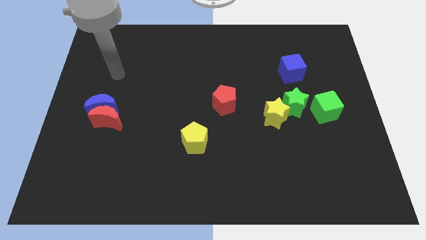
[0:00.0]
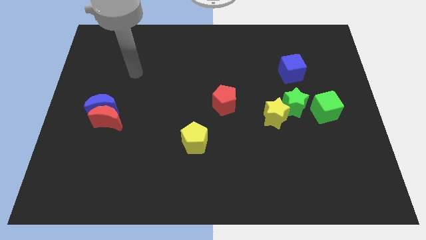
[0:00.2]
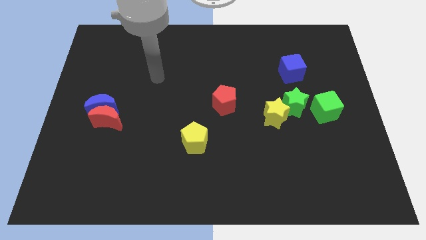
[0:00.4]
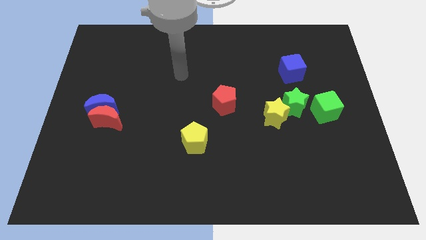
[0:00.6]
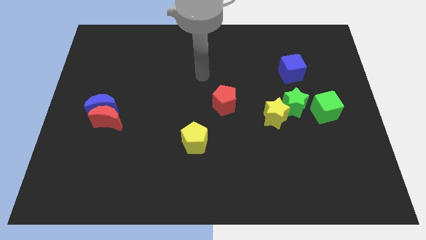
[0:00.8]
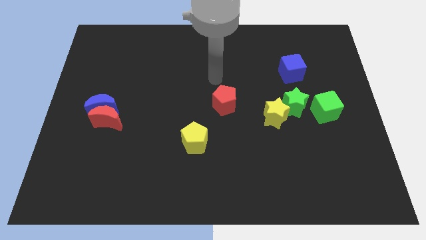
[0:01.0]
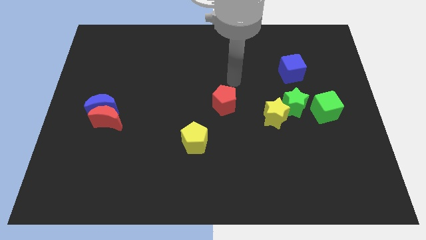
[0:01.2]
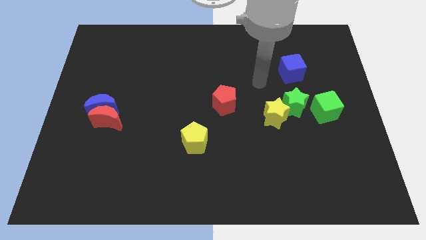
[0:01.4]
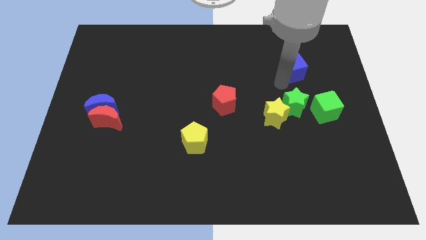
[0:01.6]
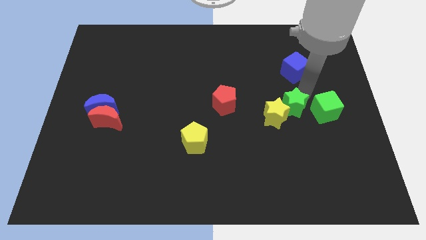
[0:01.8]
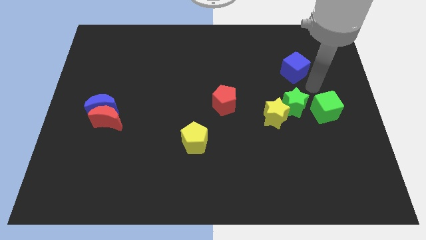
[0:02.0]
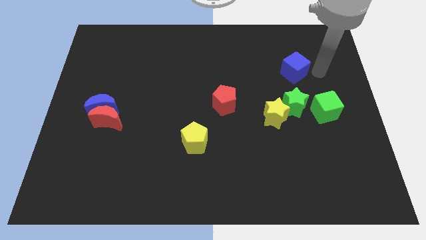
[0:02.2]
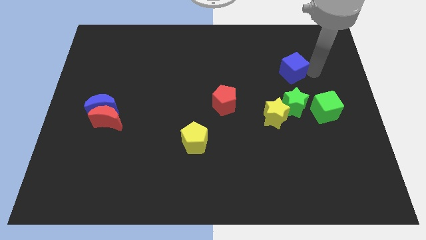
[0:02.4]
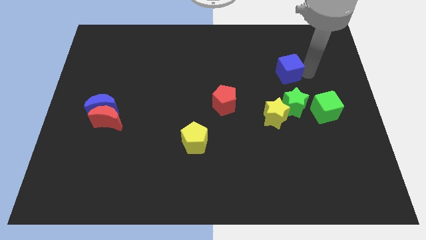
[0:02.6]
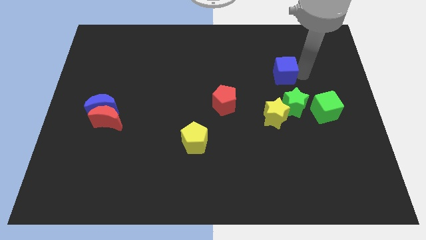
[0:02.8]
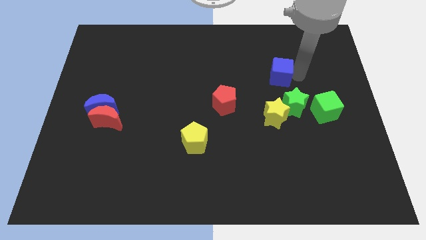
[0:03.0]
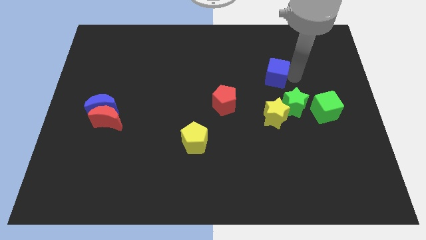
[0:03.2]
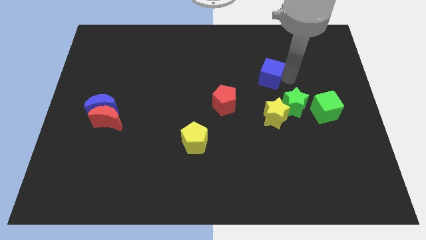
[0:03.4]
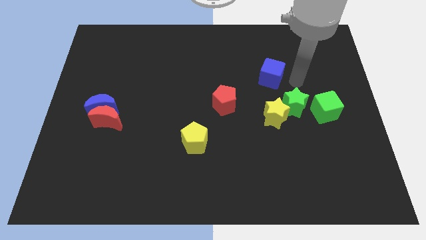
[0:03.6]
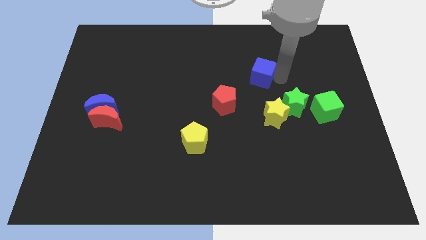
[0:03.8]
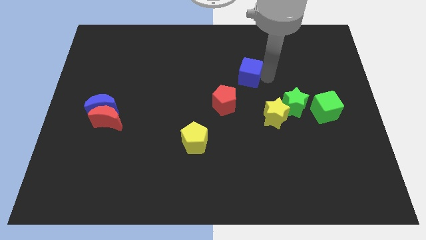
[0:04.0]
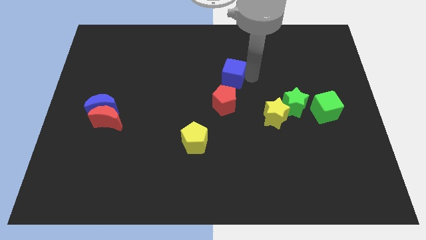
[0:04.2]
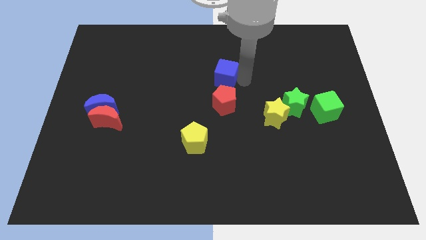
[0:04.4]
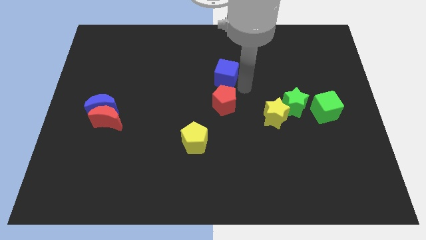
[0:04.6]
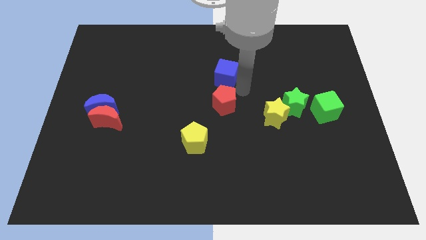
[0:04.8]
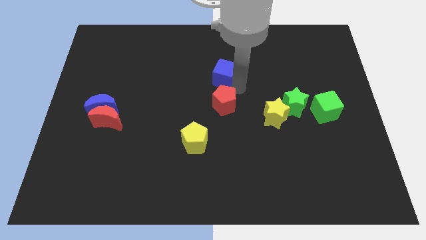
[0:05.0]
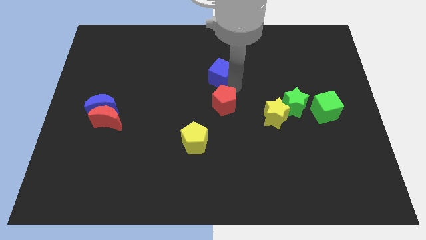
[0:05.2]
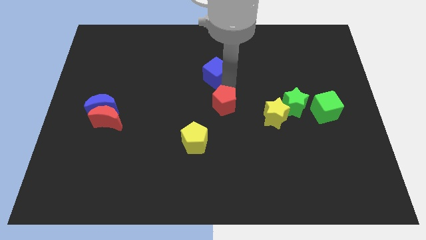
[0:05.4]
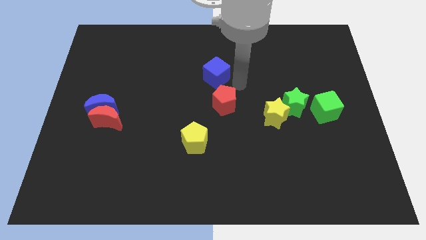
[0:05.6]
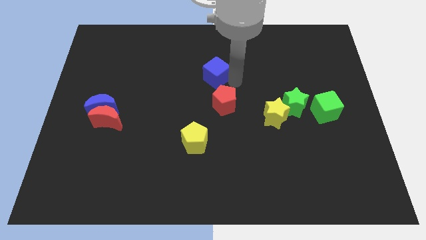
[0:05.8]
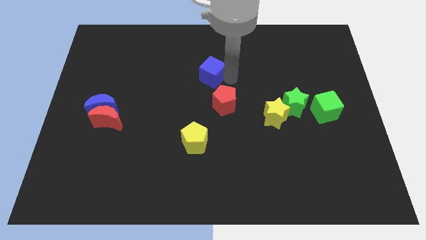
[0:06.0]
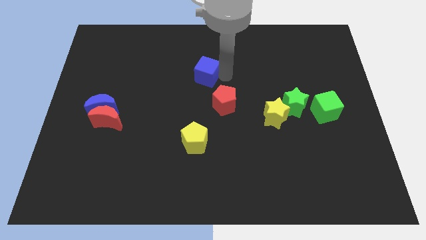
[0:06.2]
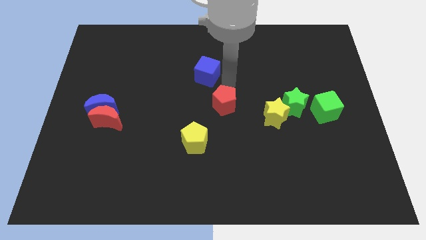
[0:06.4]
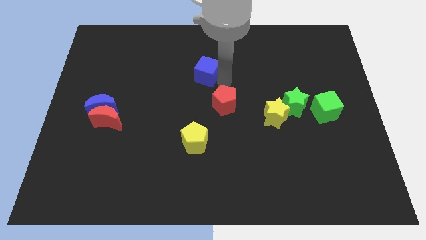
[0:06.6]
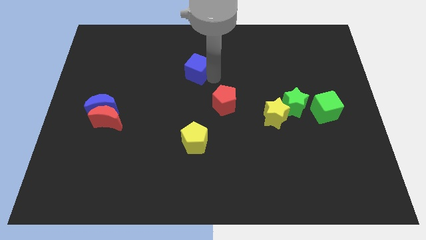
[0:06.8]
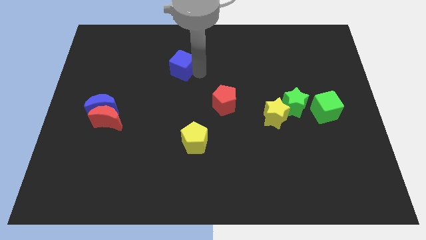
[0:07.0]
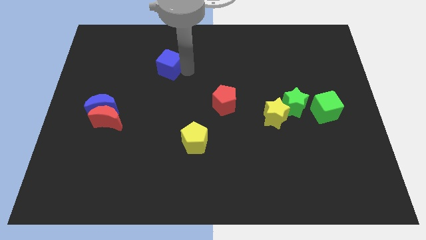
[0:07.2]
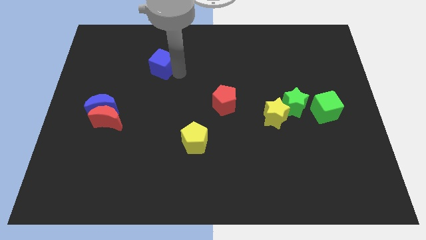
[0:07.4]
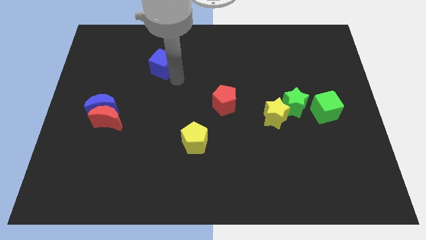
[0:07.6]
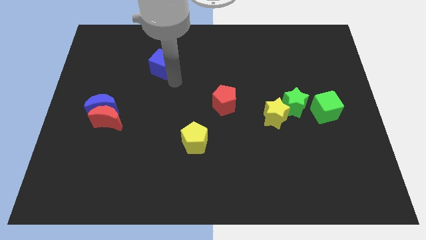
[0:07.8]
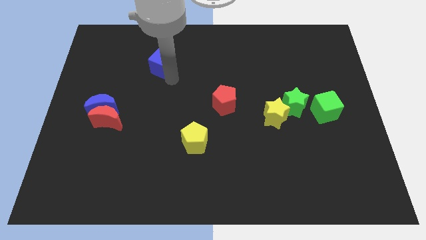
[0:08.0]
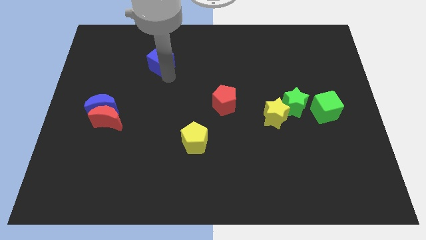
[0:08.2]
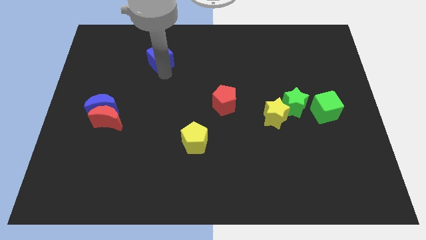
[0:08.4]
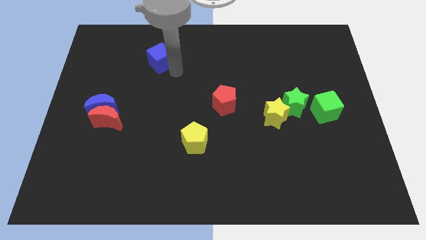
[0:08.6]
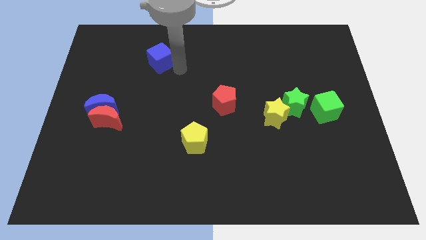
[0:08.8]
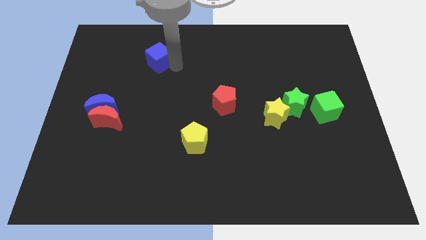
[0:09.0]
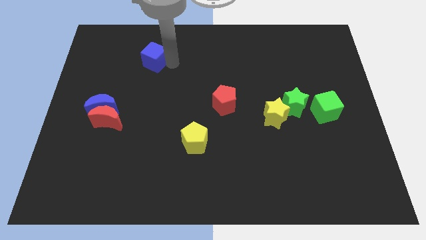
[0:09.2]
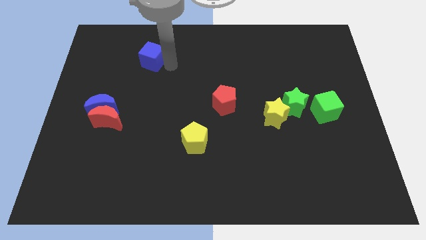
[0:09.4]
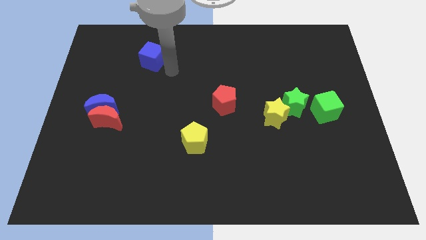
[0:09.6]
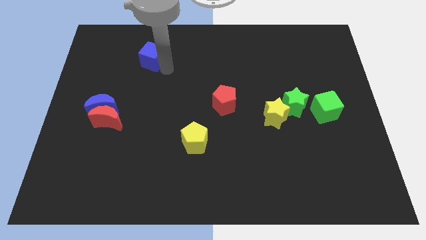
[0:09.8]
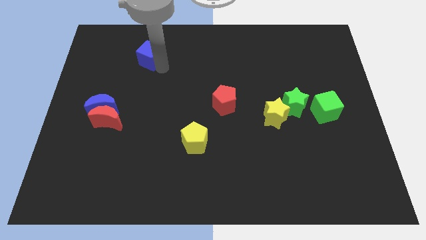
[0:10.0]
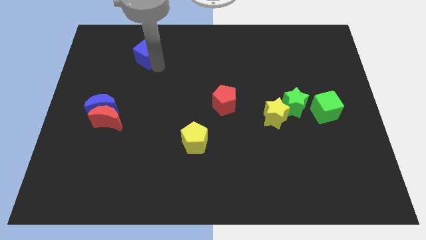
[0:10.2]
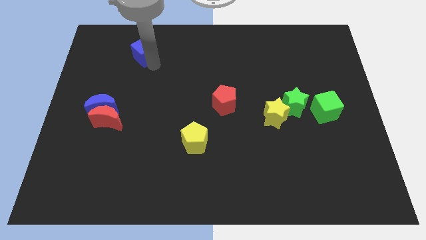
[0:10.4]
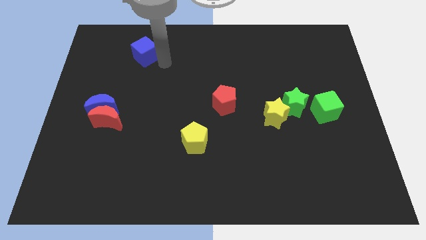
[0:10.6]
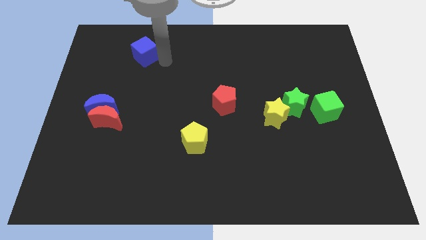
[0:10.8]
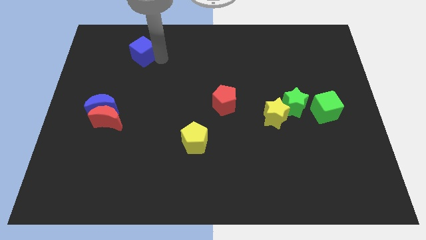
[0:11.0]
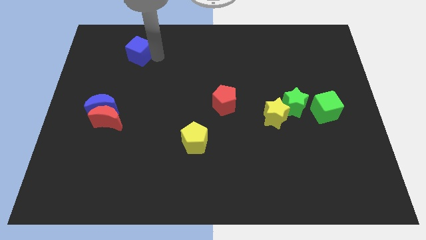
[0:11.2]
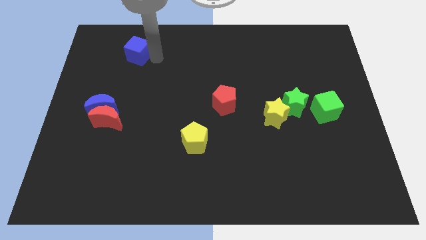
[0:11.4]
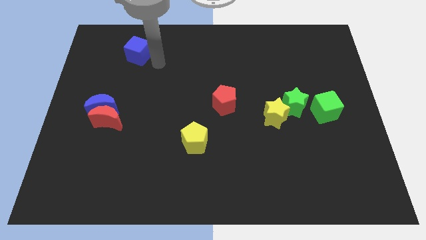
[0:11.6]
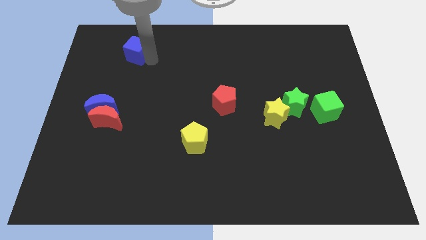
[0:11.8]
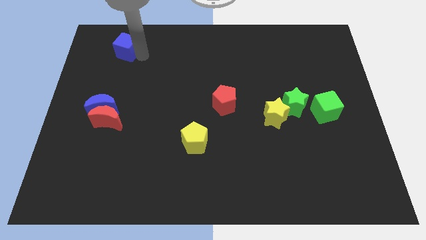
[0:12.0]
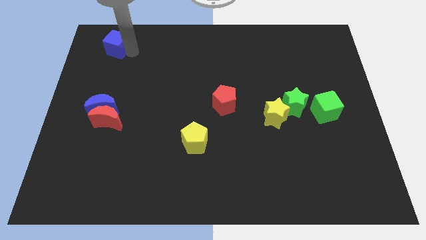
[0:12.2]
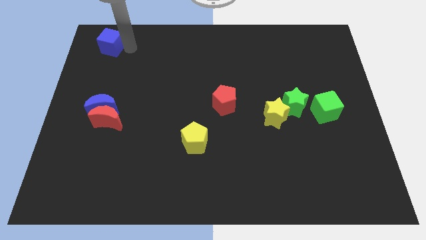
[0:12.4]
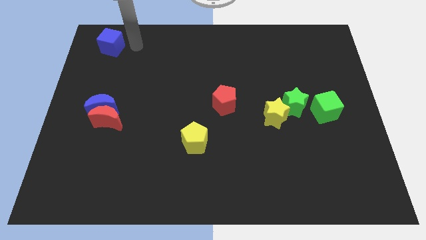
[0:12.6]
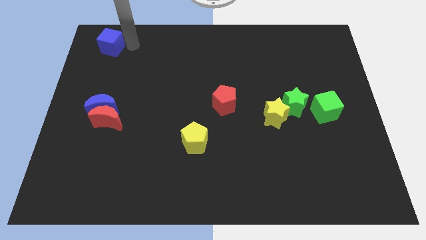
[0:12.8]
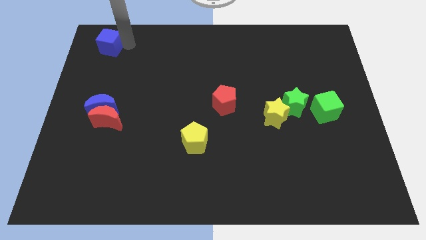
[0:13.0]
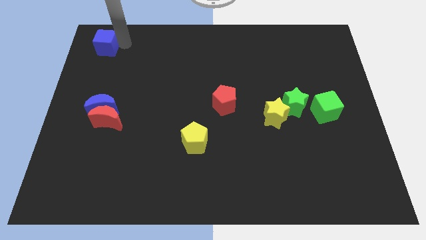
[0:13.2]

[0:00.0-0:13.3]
put the blue cube to the top left corner
